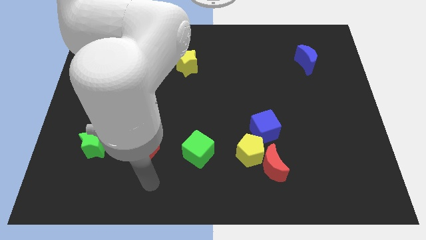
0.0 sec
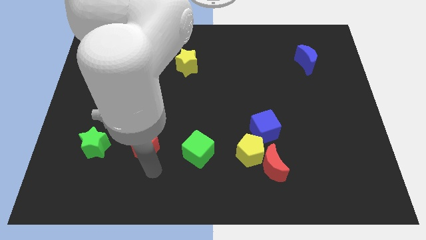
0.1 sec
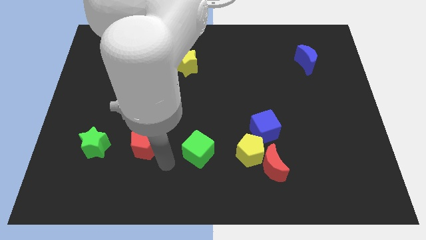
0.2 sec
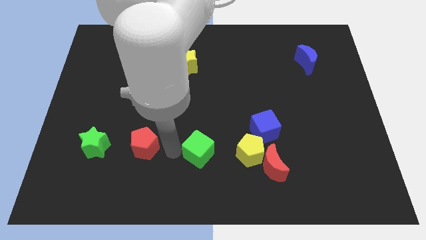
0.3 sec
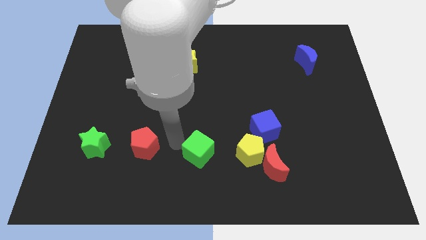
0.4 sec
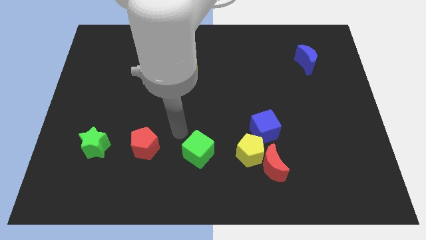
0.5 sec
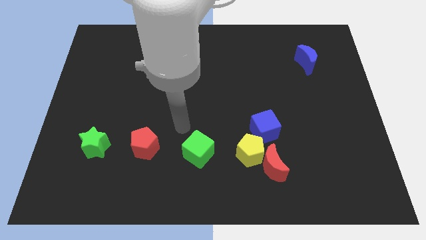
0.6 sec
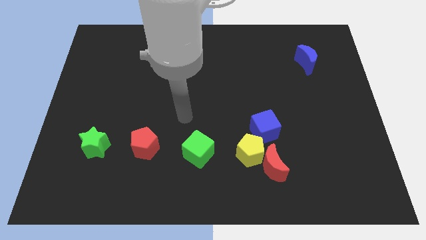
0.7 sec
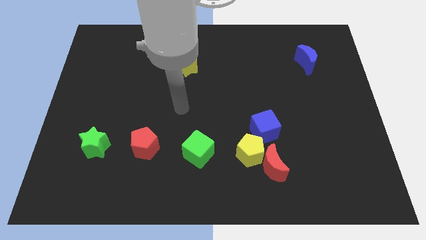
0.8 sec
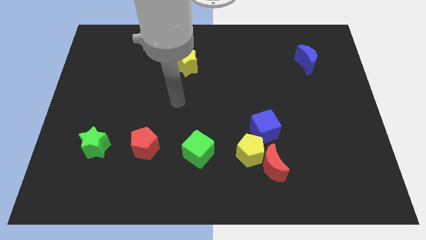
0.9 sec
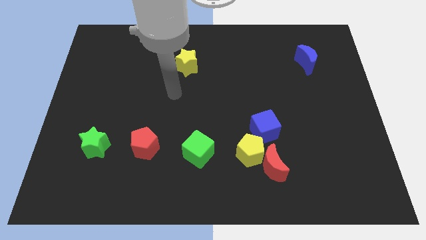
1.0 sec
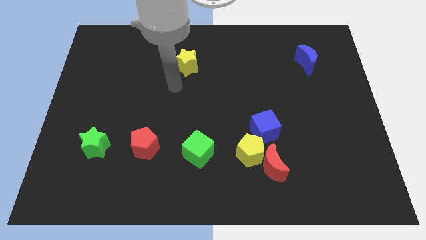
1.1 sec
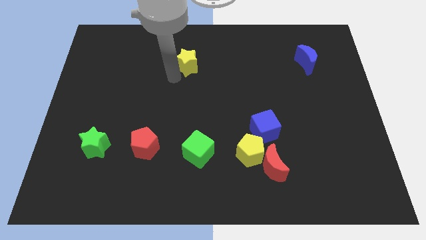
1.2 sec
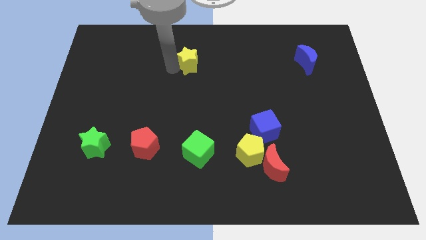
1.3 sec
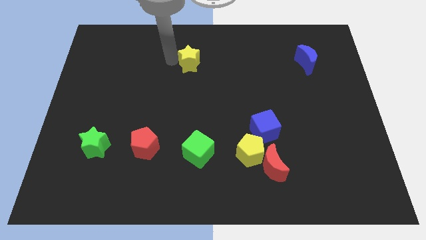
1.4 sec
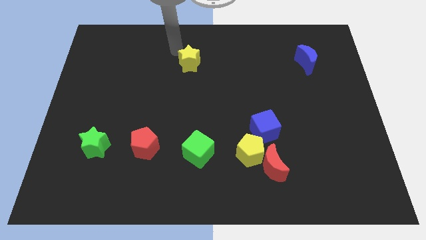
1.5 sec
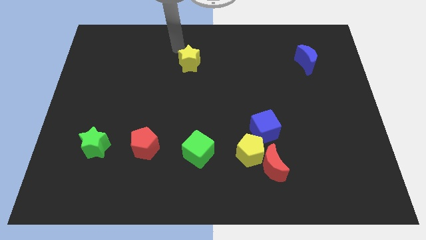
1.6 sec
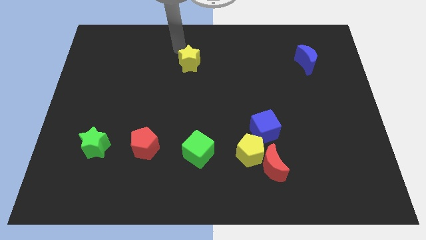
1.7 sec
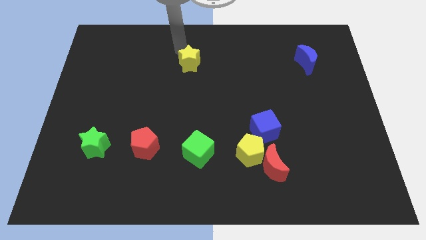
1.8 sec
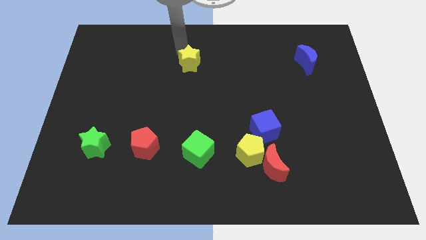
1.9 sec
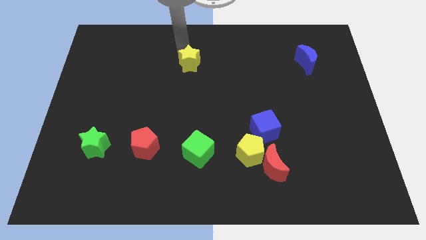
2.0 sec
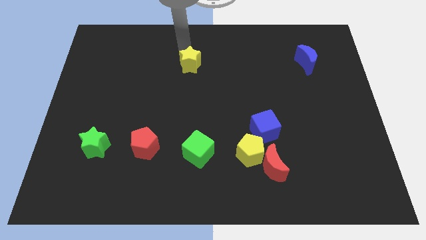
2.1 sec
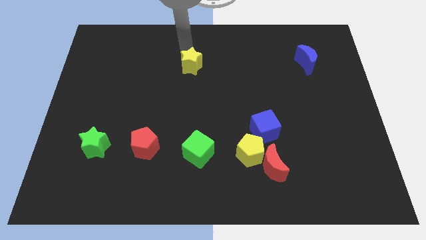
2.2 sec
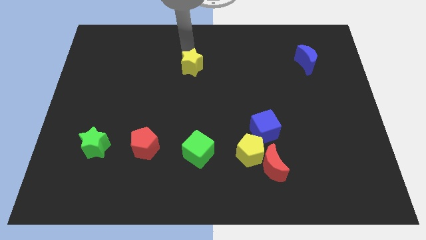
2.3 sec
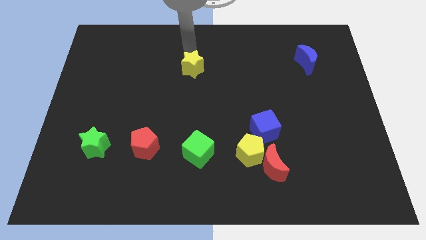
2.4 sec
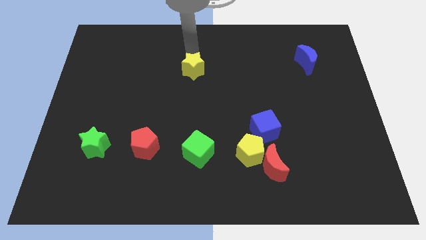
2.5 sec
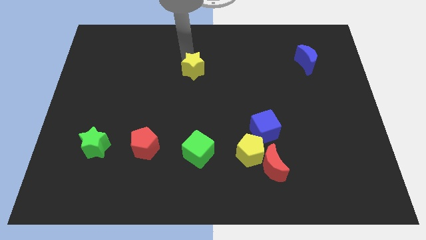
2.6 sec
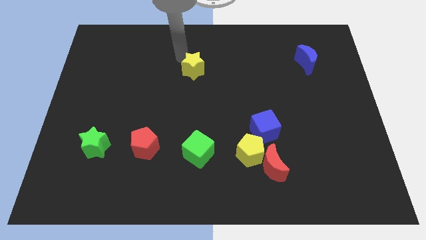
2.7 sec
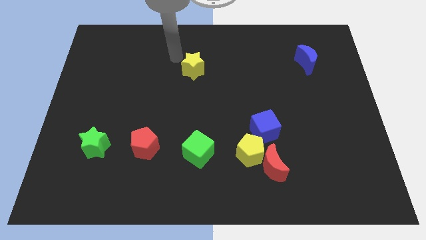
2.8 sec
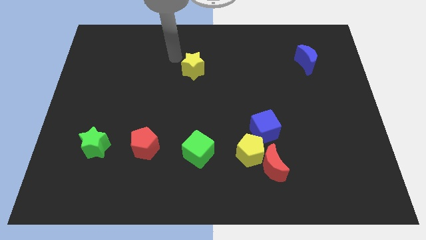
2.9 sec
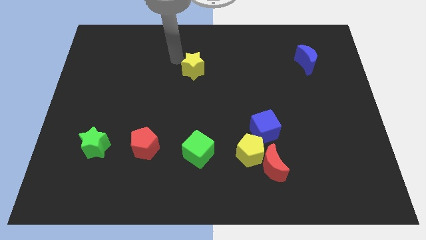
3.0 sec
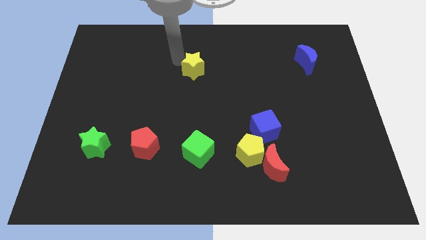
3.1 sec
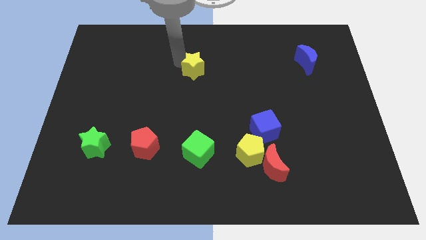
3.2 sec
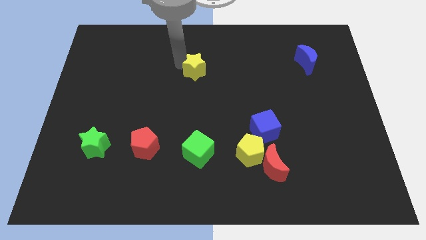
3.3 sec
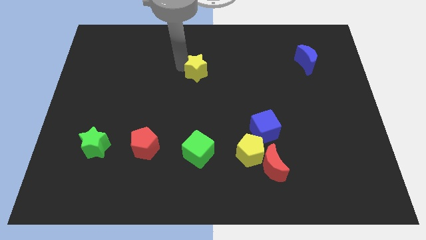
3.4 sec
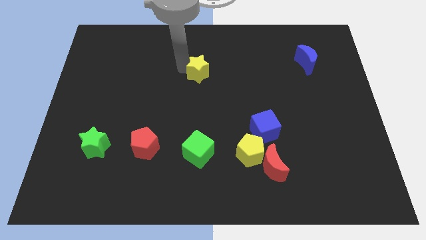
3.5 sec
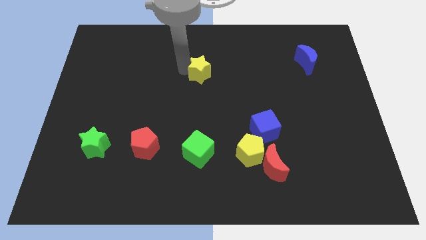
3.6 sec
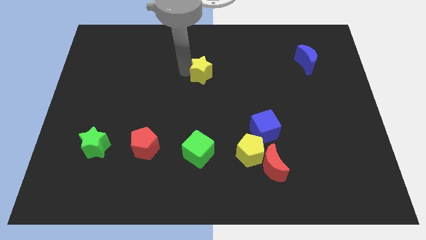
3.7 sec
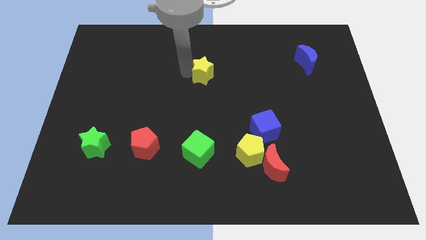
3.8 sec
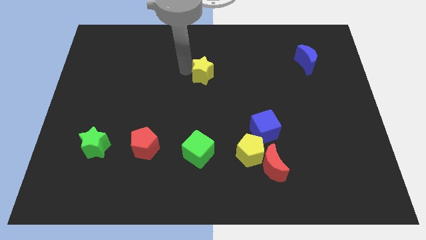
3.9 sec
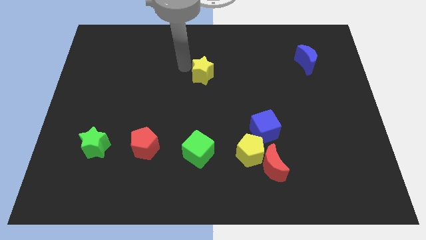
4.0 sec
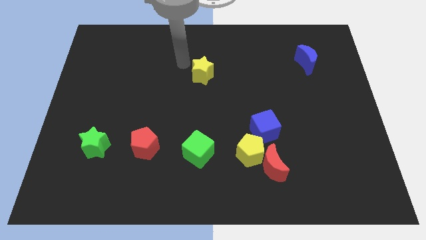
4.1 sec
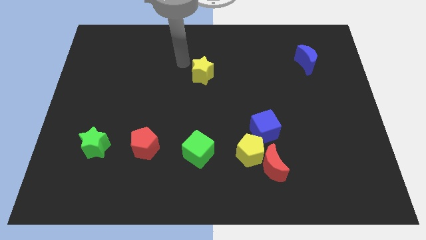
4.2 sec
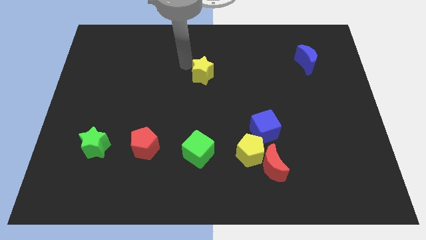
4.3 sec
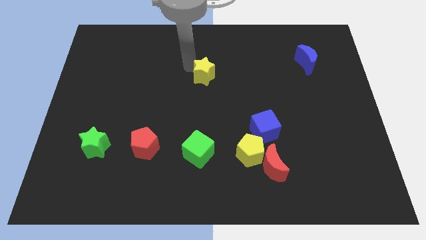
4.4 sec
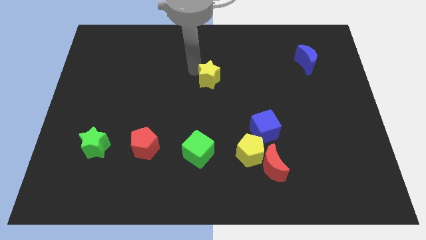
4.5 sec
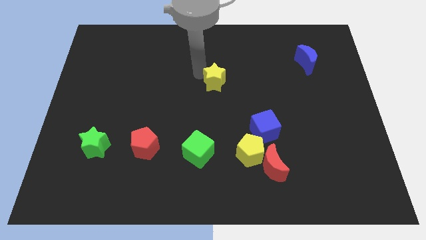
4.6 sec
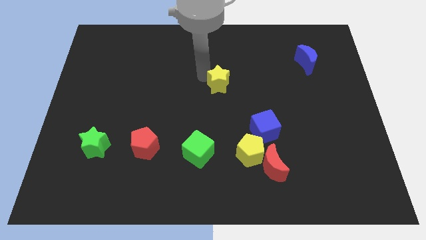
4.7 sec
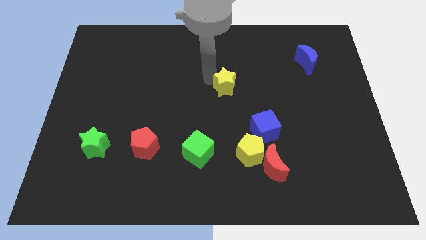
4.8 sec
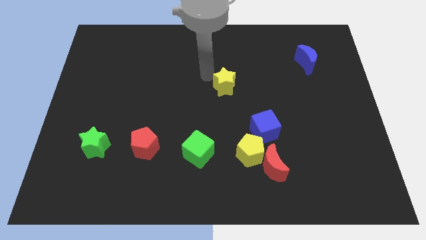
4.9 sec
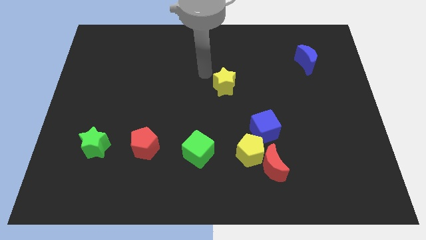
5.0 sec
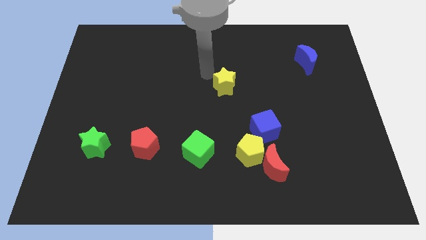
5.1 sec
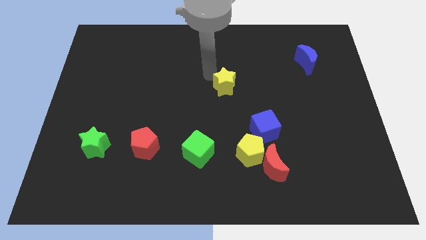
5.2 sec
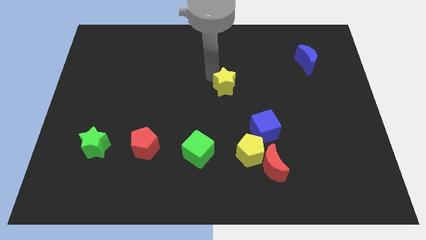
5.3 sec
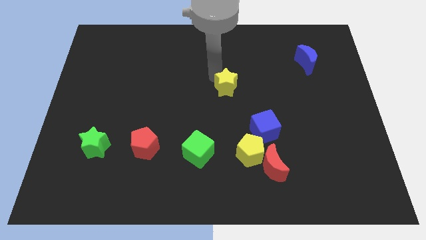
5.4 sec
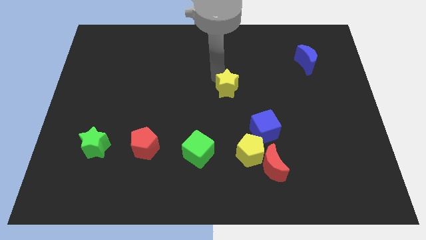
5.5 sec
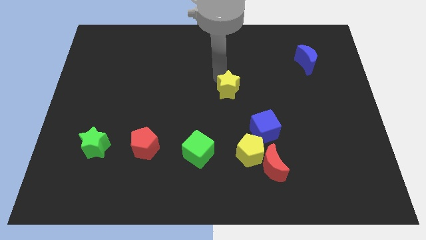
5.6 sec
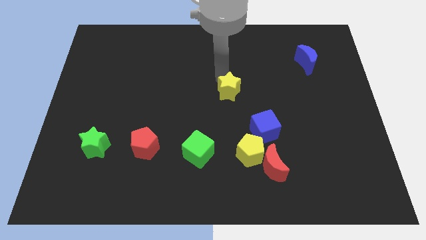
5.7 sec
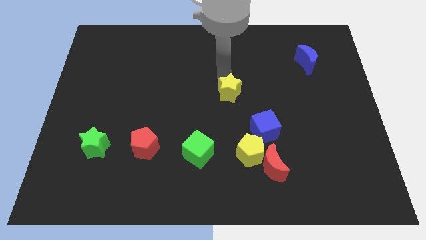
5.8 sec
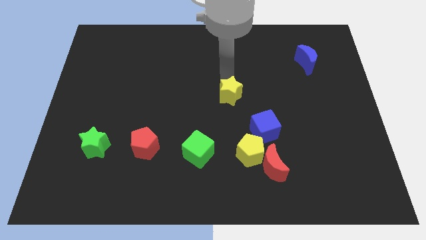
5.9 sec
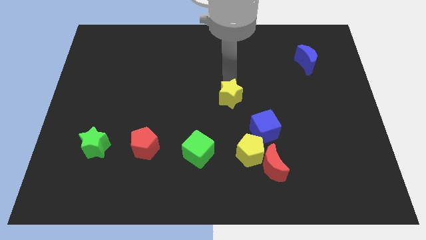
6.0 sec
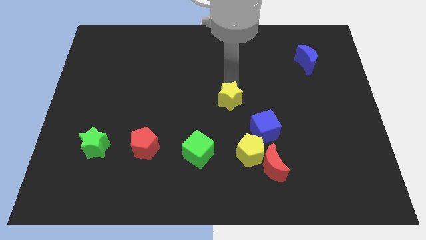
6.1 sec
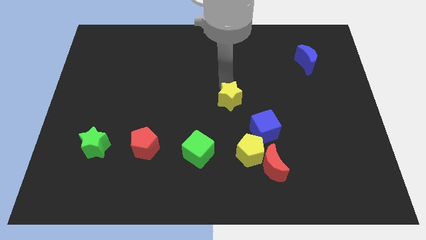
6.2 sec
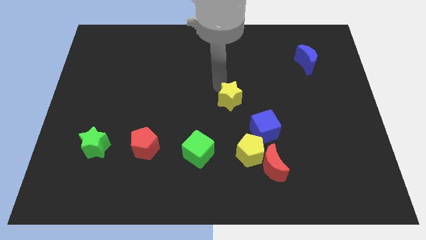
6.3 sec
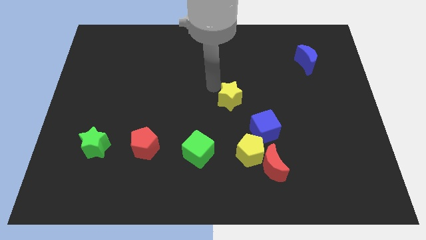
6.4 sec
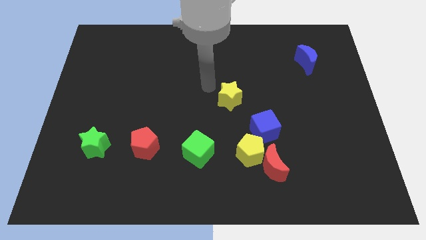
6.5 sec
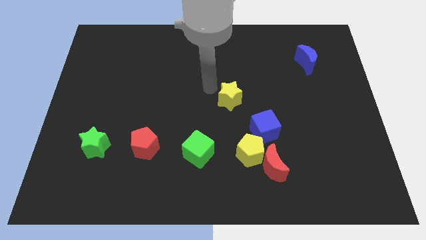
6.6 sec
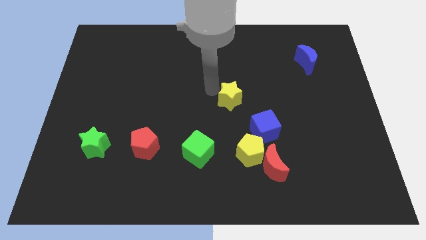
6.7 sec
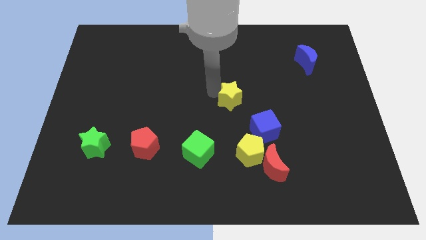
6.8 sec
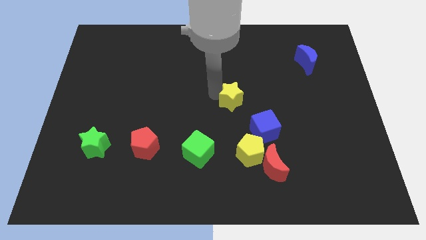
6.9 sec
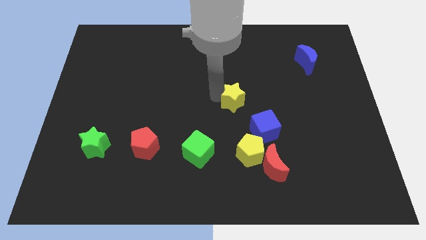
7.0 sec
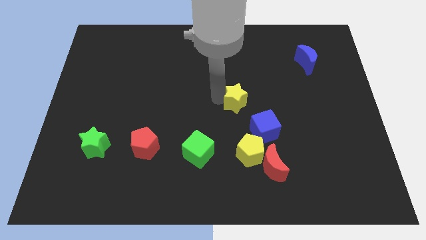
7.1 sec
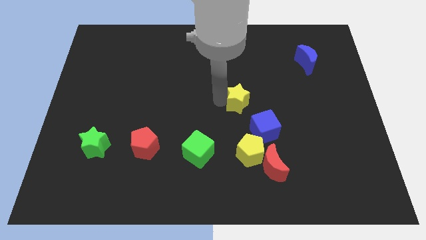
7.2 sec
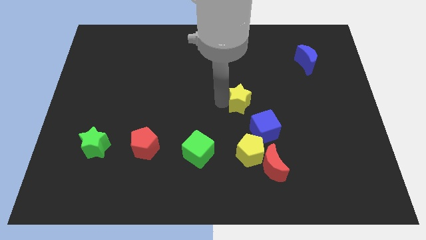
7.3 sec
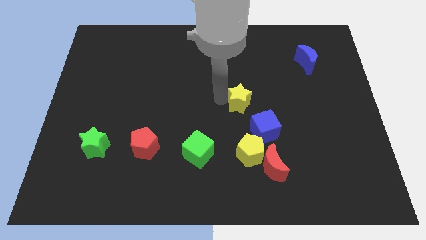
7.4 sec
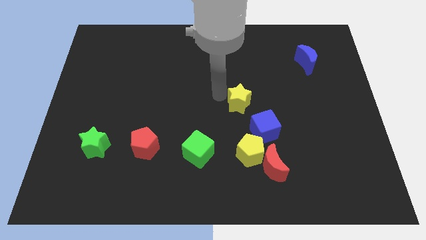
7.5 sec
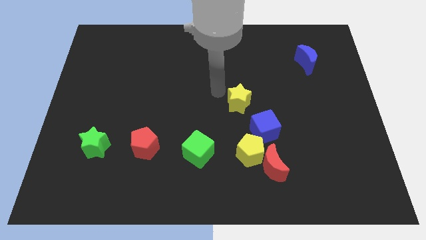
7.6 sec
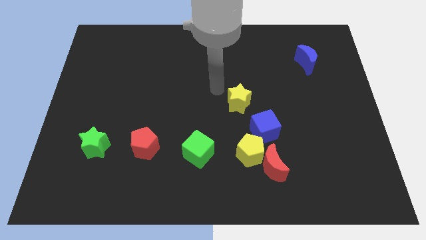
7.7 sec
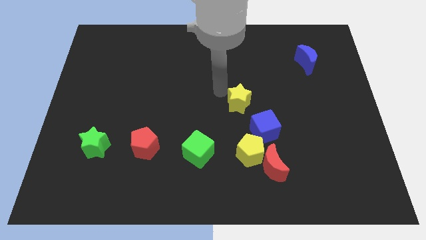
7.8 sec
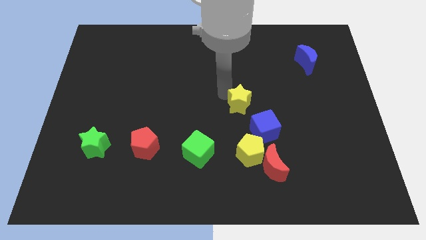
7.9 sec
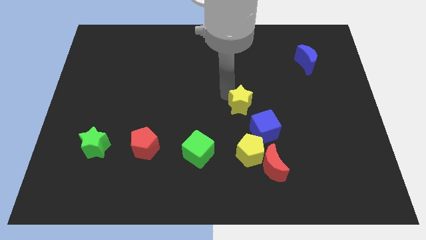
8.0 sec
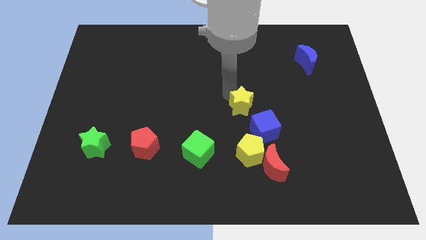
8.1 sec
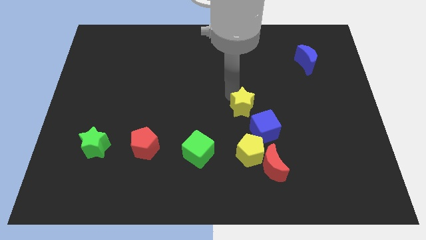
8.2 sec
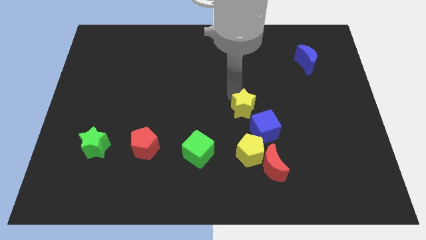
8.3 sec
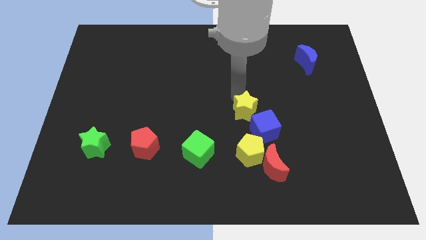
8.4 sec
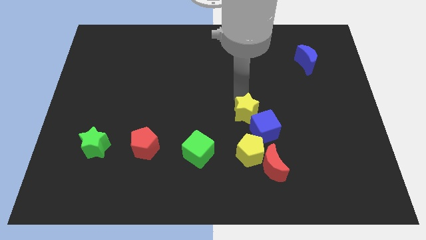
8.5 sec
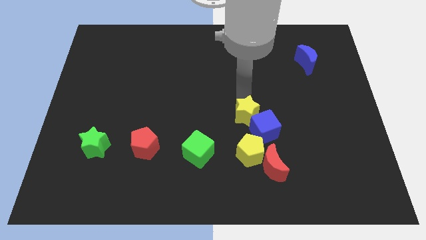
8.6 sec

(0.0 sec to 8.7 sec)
slide the yellow star to the blue cube
